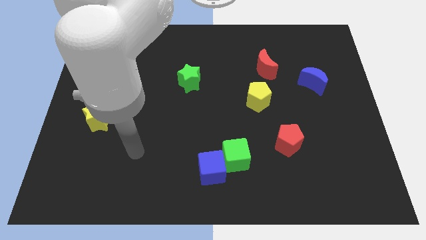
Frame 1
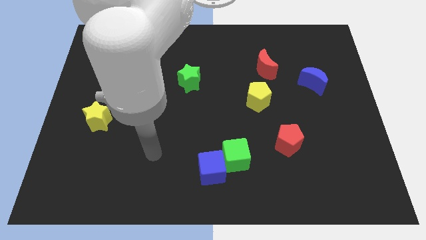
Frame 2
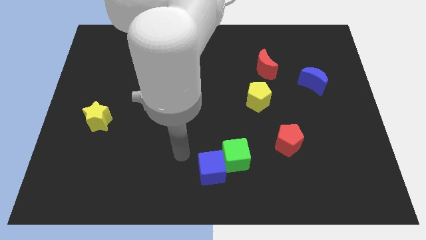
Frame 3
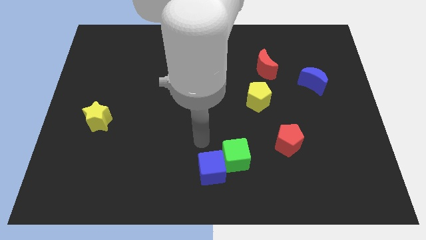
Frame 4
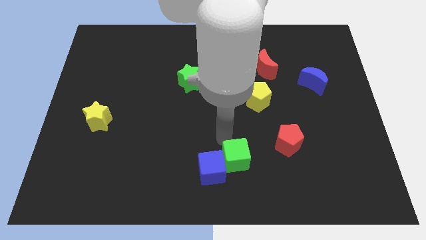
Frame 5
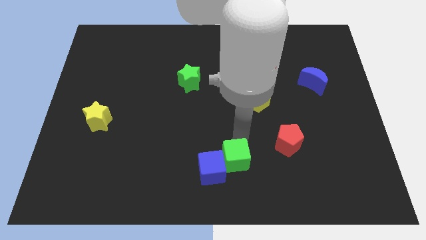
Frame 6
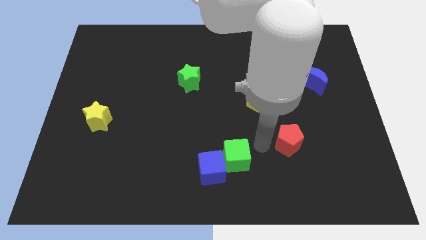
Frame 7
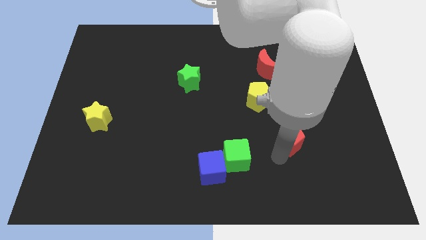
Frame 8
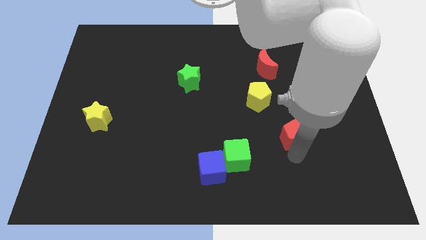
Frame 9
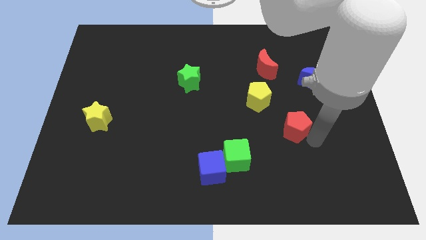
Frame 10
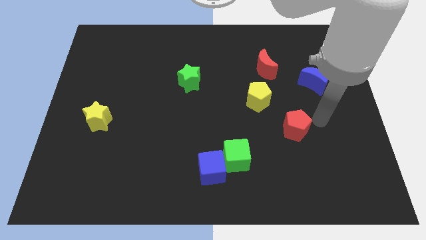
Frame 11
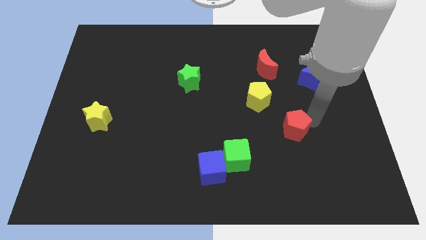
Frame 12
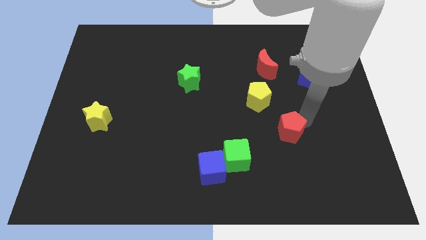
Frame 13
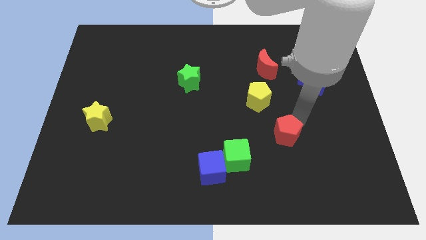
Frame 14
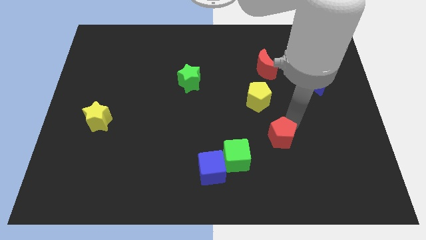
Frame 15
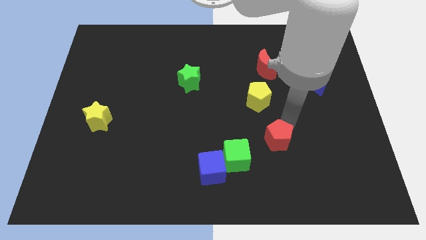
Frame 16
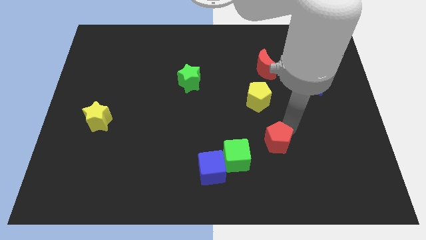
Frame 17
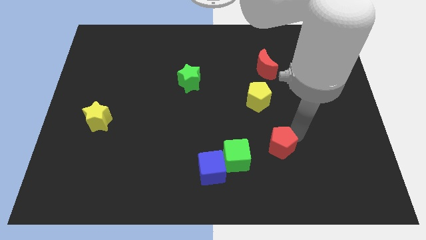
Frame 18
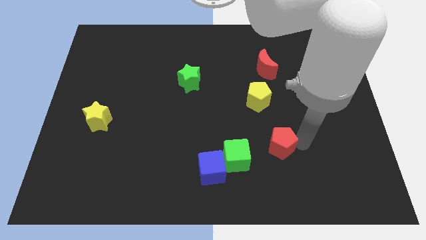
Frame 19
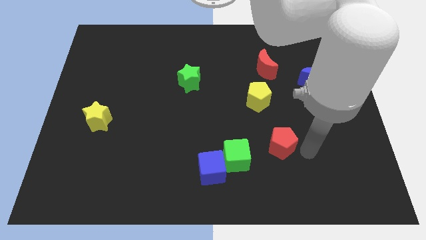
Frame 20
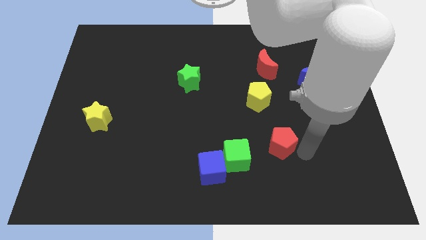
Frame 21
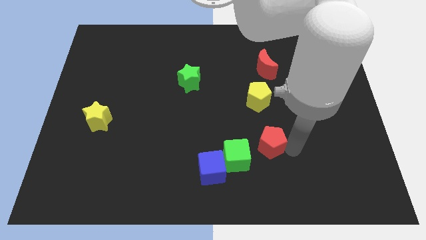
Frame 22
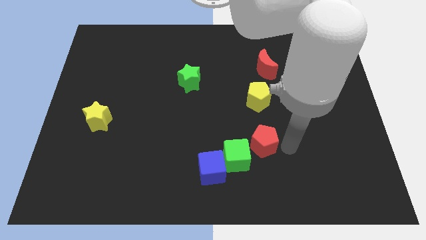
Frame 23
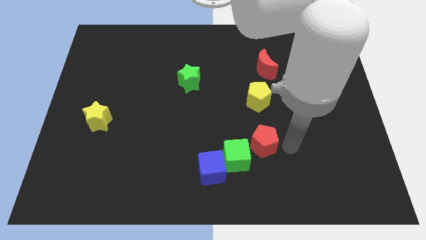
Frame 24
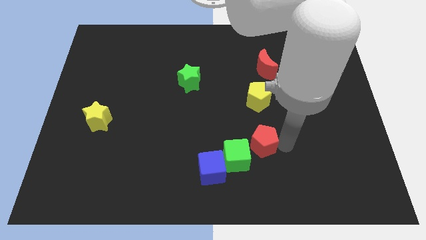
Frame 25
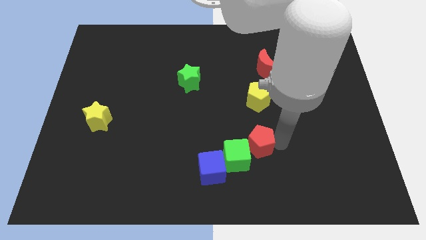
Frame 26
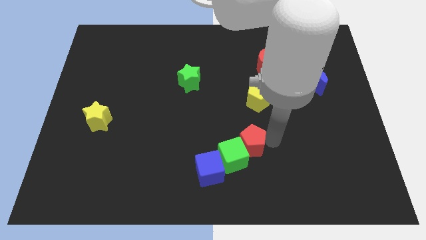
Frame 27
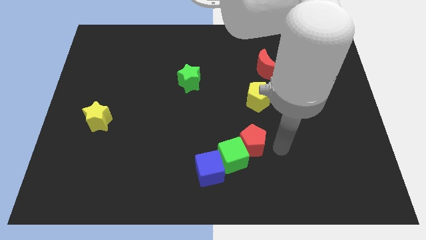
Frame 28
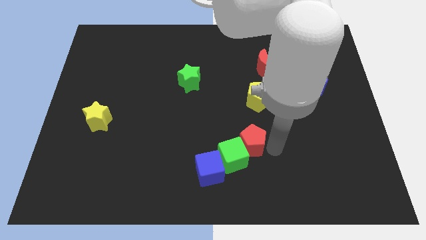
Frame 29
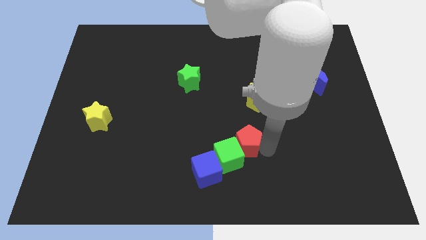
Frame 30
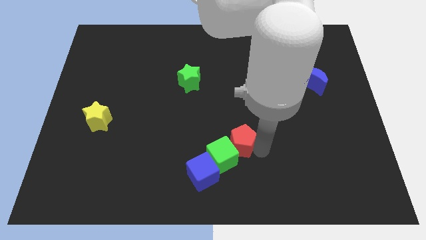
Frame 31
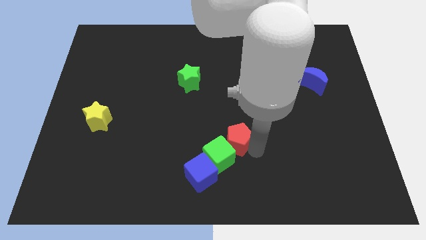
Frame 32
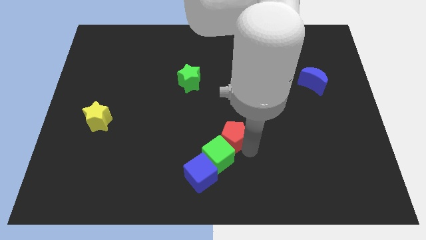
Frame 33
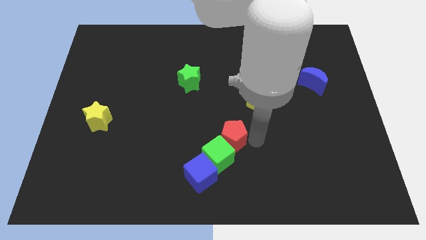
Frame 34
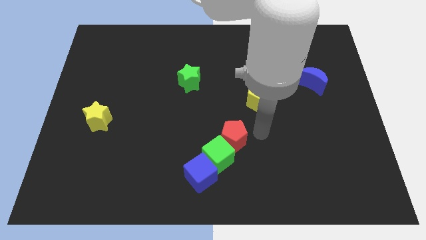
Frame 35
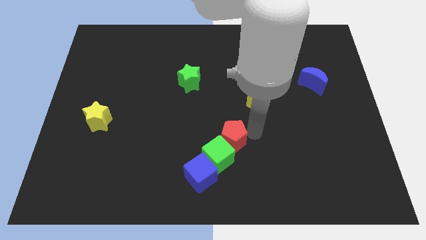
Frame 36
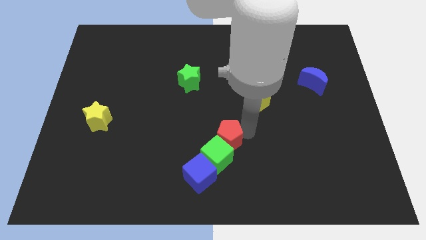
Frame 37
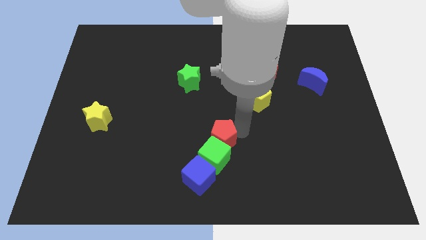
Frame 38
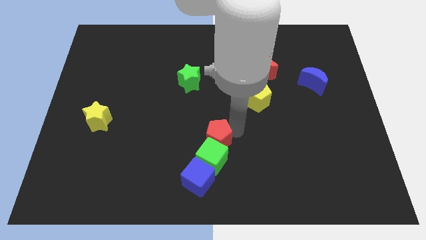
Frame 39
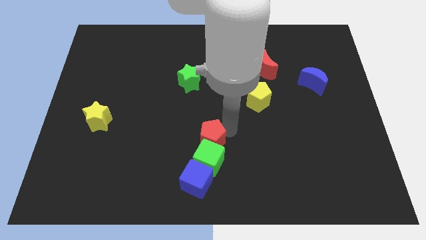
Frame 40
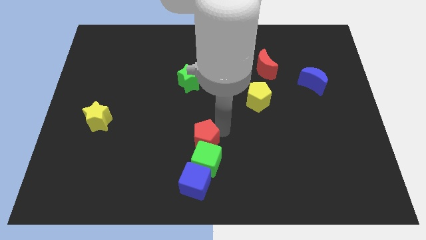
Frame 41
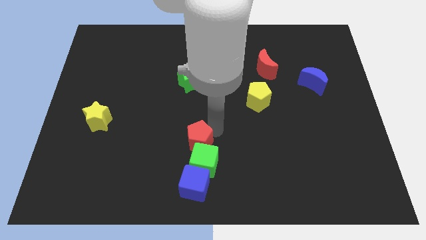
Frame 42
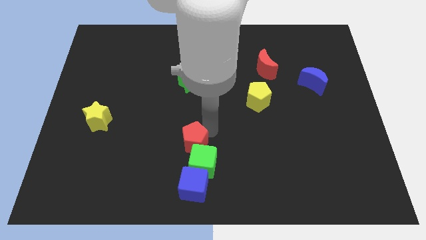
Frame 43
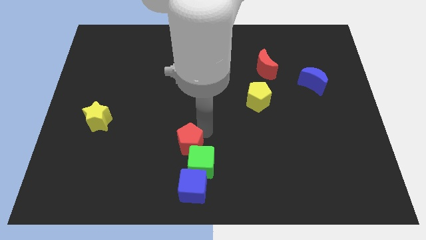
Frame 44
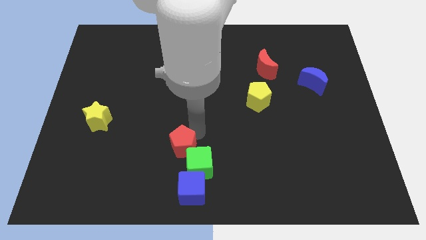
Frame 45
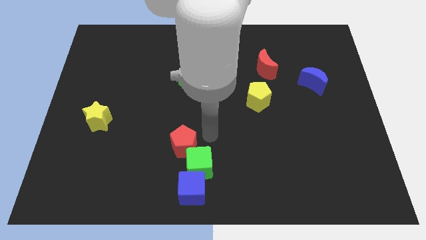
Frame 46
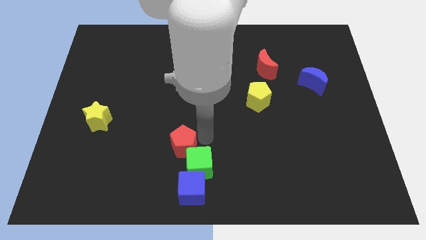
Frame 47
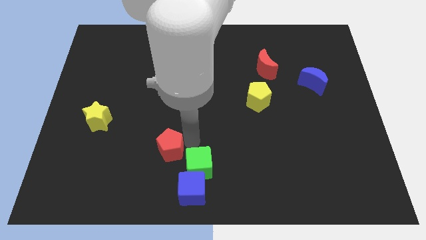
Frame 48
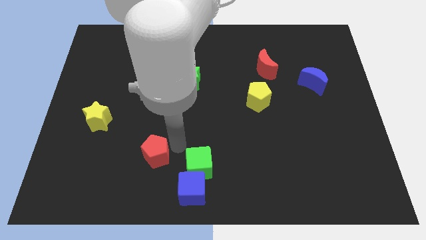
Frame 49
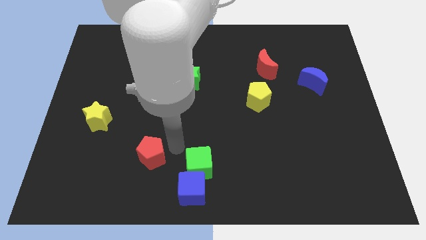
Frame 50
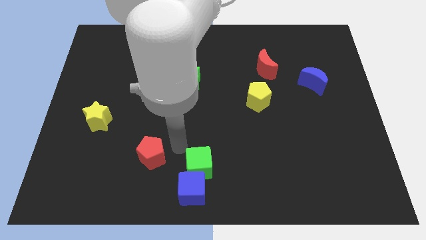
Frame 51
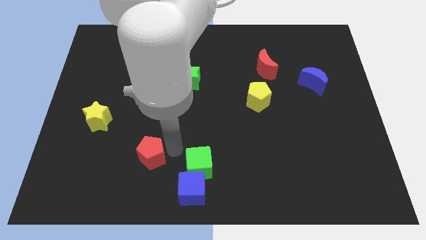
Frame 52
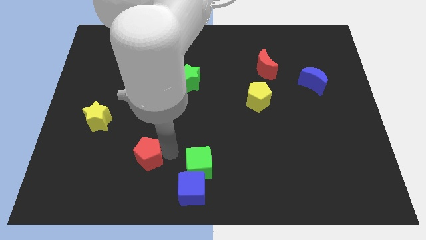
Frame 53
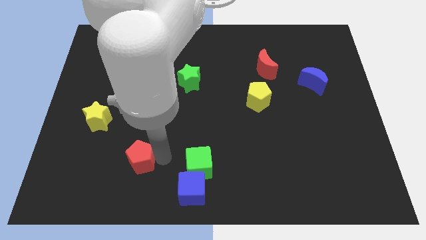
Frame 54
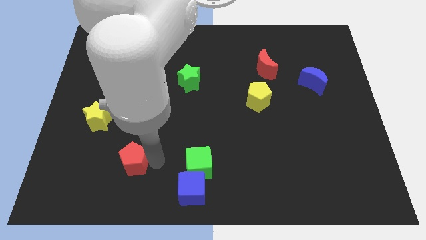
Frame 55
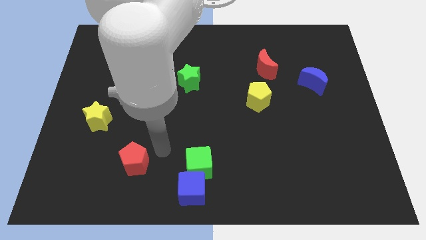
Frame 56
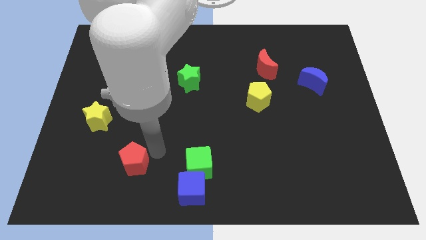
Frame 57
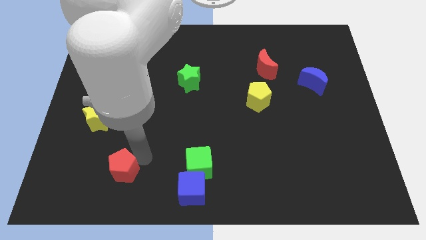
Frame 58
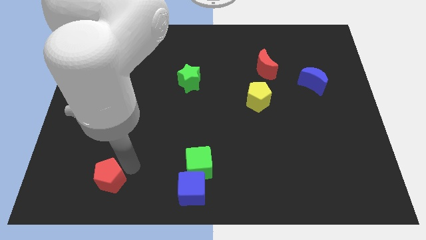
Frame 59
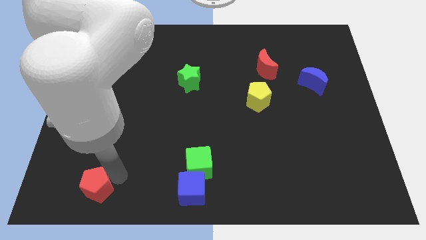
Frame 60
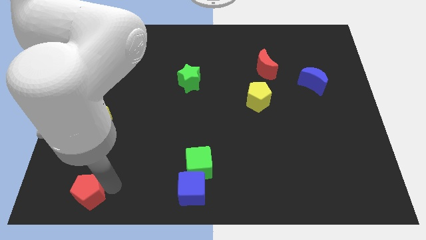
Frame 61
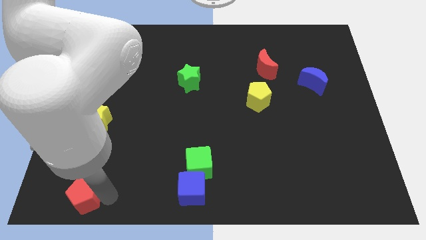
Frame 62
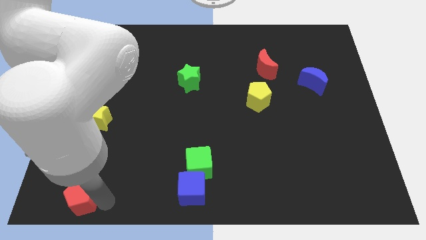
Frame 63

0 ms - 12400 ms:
push the red pentagon to the bottom left of the board

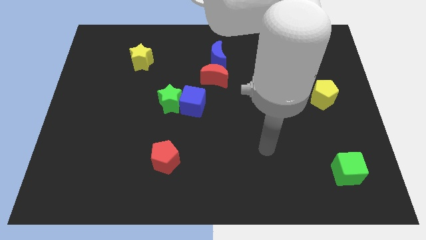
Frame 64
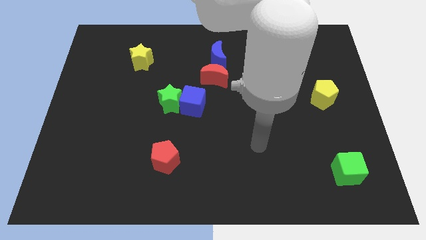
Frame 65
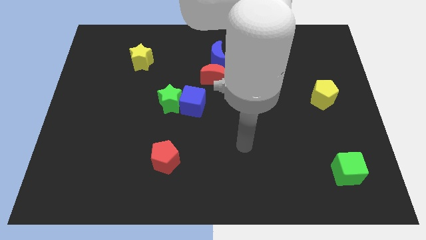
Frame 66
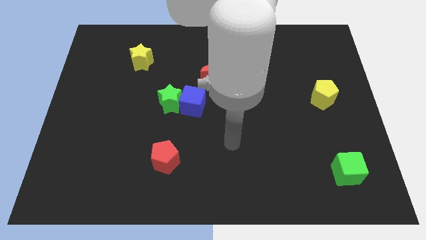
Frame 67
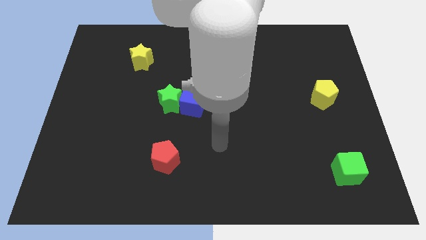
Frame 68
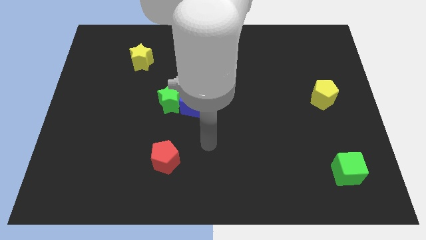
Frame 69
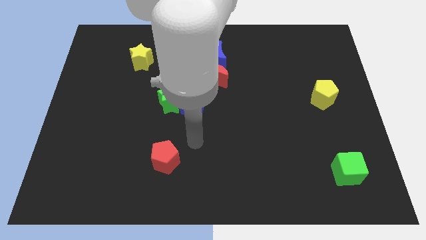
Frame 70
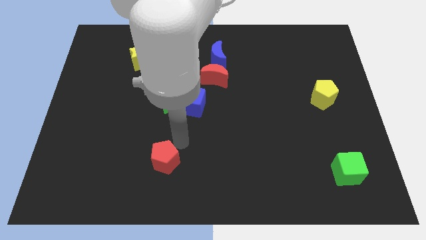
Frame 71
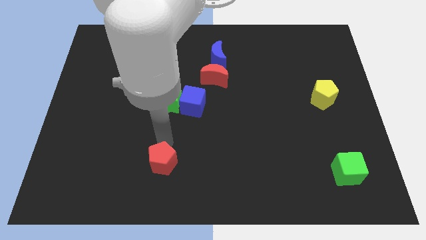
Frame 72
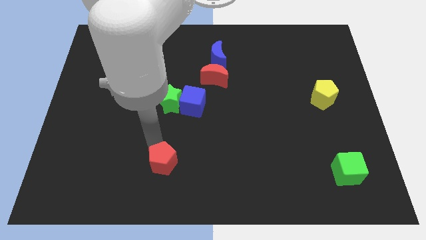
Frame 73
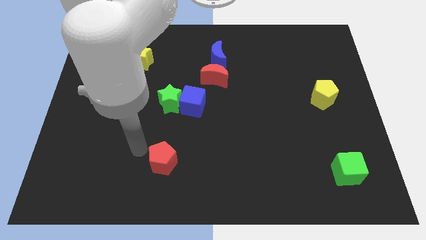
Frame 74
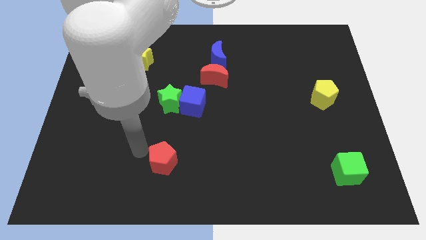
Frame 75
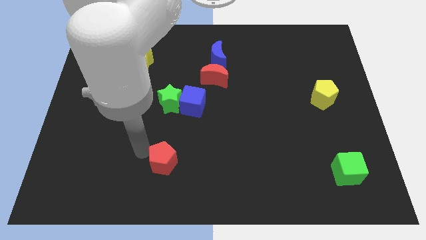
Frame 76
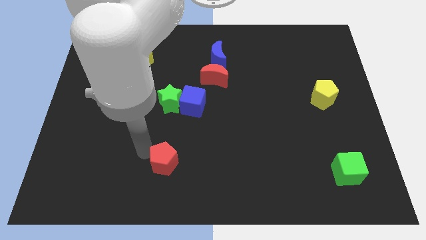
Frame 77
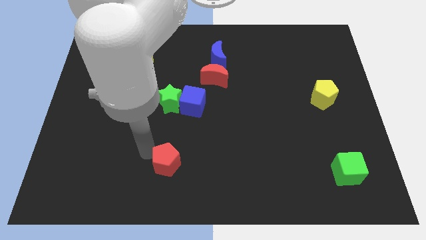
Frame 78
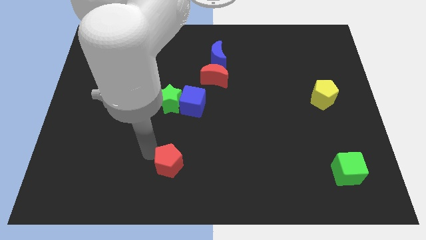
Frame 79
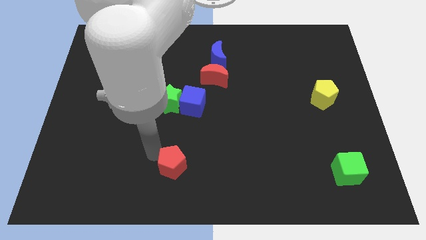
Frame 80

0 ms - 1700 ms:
slide the red pentagon to the bottom
